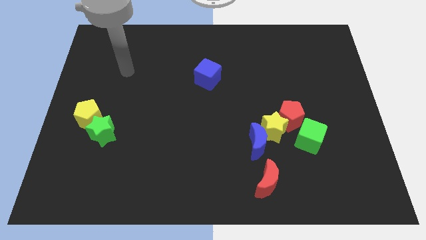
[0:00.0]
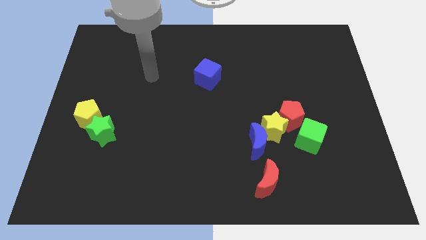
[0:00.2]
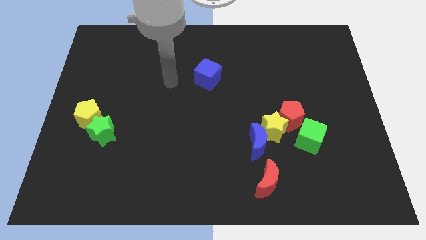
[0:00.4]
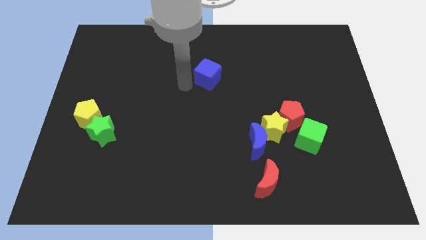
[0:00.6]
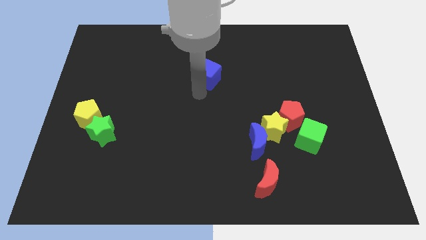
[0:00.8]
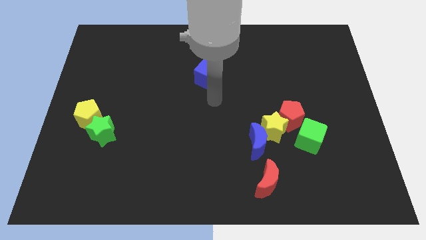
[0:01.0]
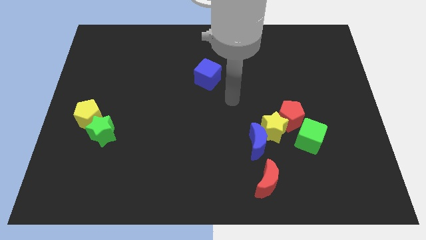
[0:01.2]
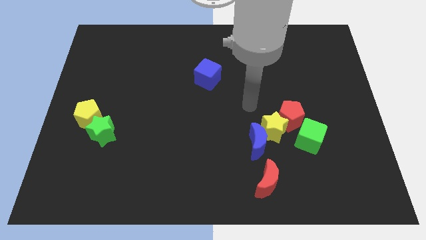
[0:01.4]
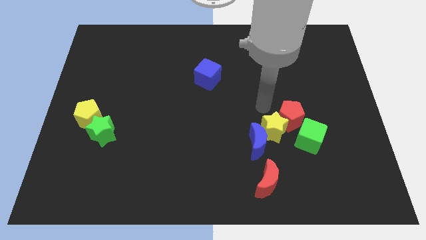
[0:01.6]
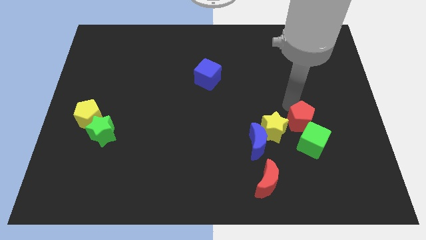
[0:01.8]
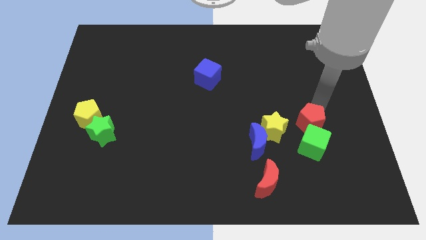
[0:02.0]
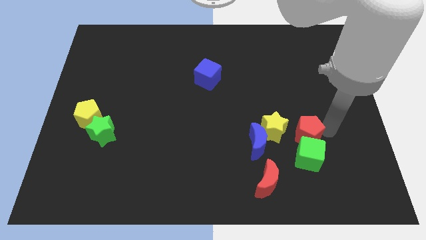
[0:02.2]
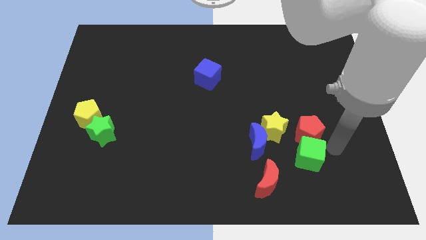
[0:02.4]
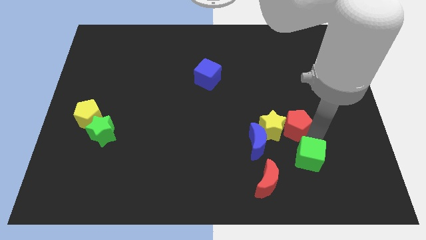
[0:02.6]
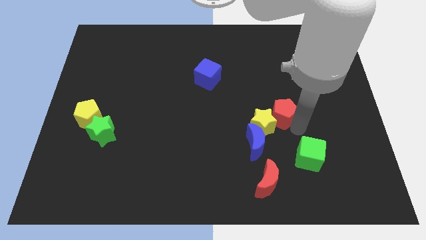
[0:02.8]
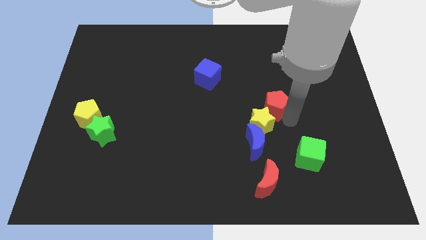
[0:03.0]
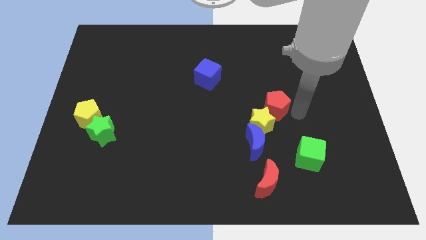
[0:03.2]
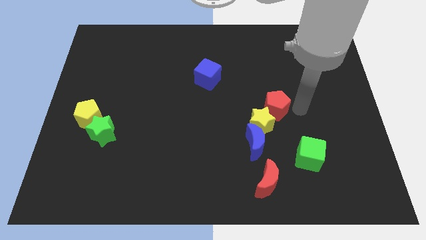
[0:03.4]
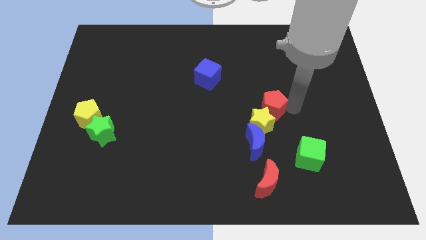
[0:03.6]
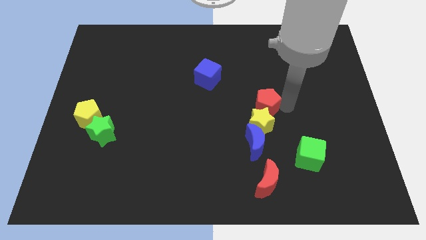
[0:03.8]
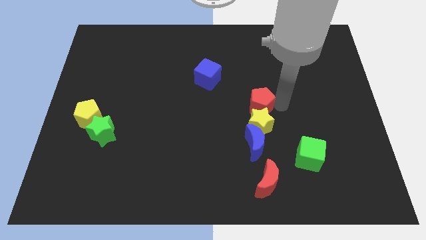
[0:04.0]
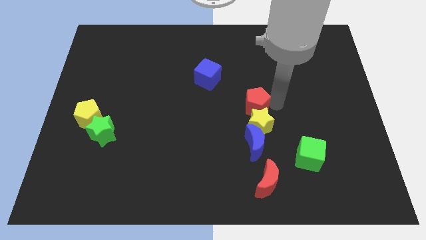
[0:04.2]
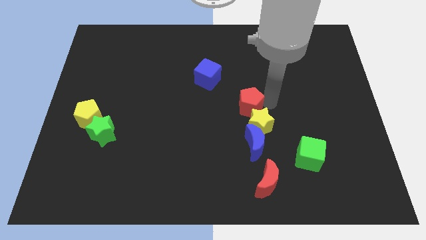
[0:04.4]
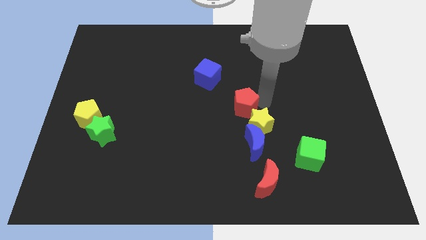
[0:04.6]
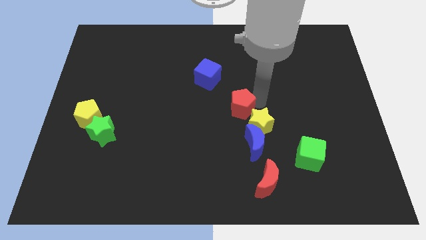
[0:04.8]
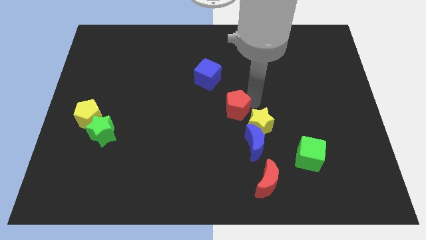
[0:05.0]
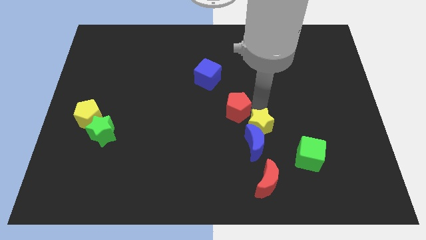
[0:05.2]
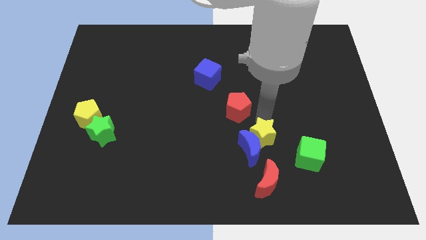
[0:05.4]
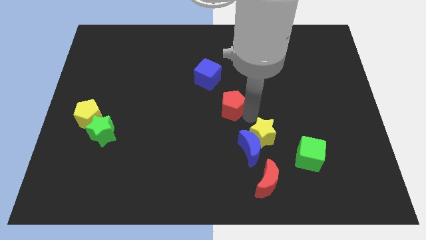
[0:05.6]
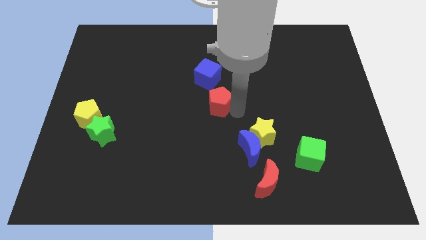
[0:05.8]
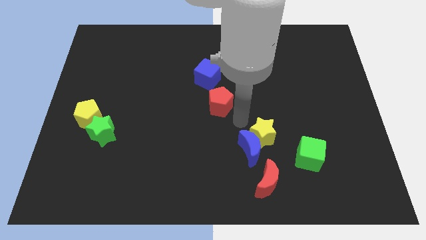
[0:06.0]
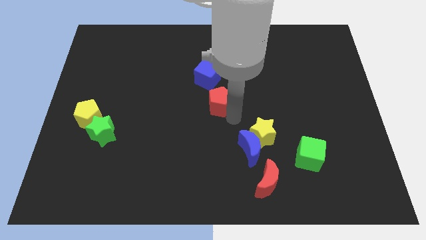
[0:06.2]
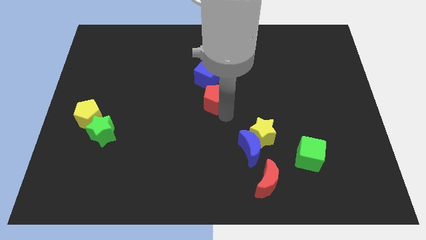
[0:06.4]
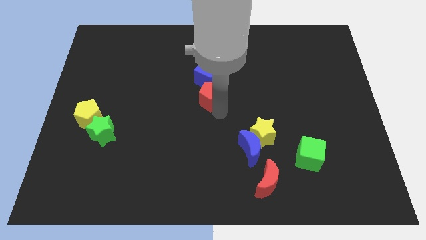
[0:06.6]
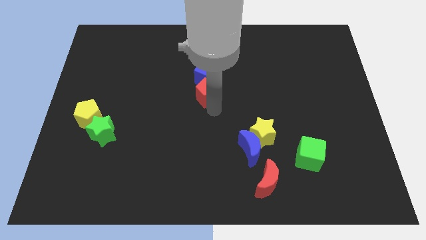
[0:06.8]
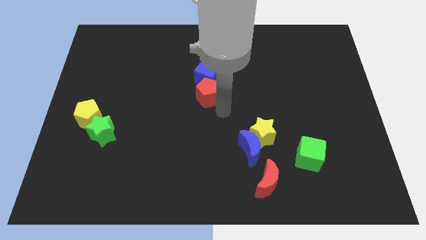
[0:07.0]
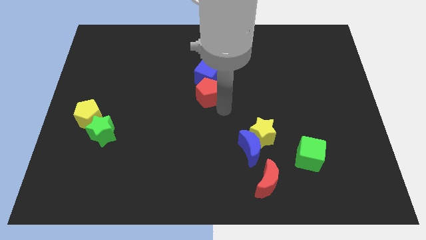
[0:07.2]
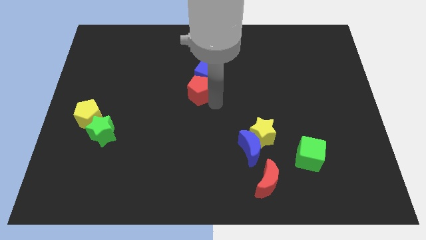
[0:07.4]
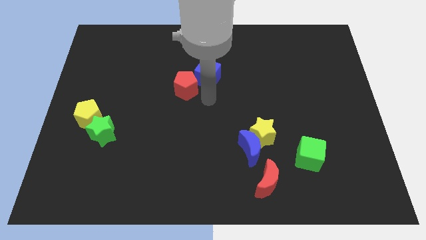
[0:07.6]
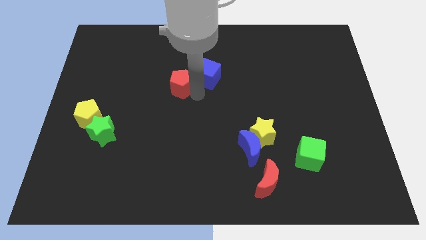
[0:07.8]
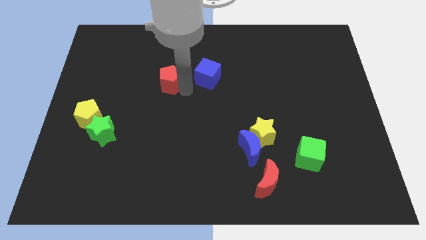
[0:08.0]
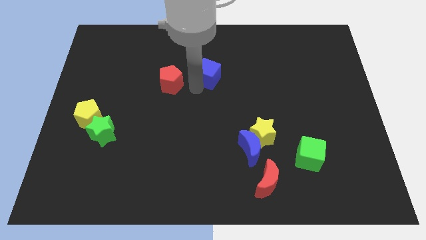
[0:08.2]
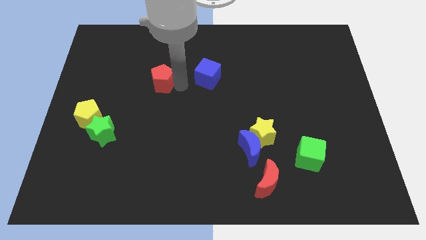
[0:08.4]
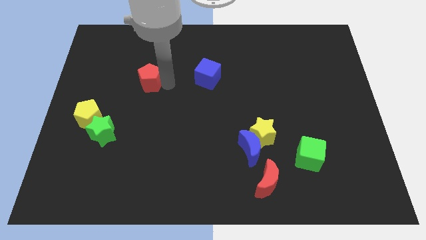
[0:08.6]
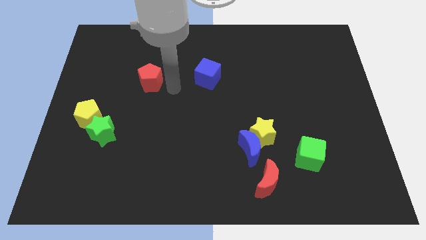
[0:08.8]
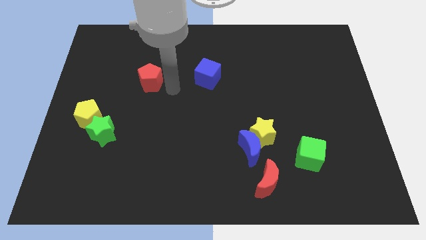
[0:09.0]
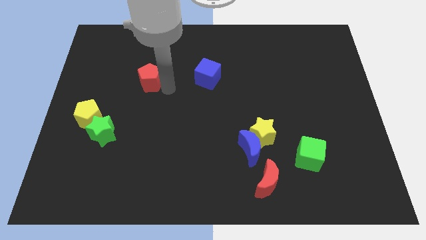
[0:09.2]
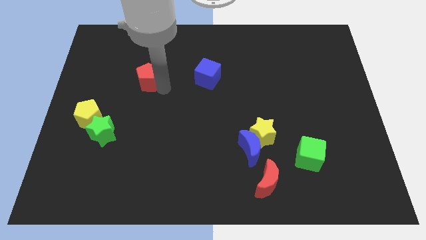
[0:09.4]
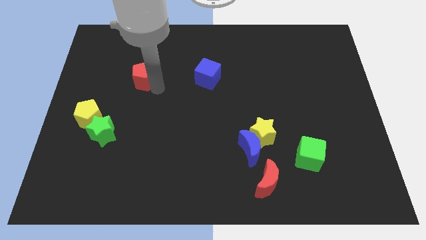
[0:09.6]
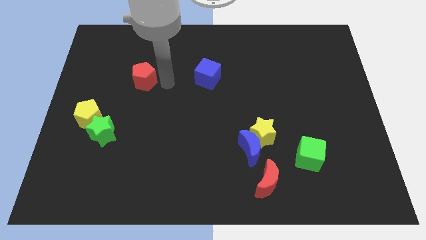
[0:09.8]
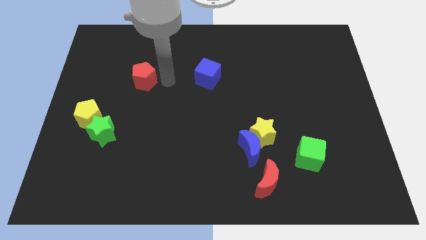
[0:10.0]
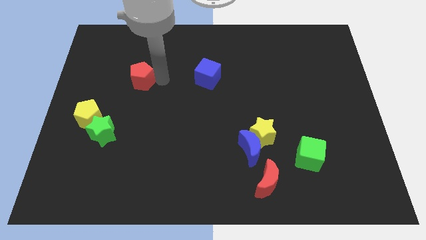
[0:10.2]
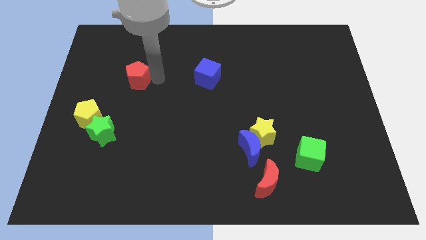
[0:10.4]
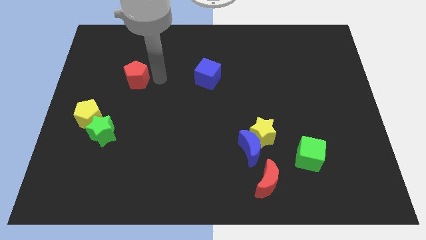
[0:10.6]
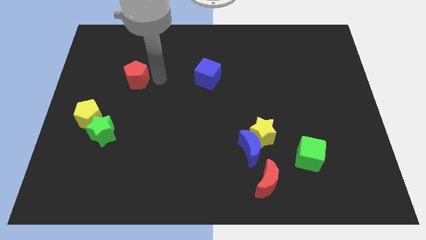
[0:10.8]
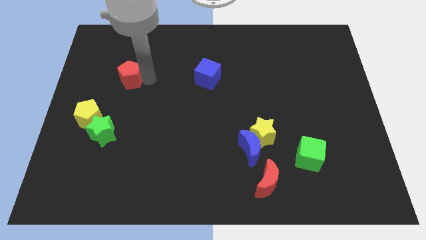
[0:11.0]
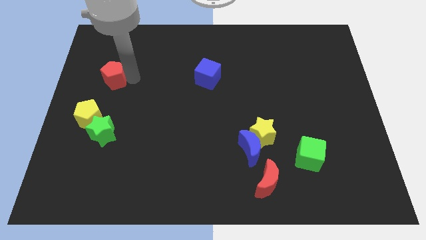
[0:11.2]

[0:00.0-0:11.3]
move the red pentagon to the top side of the yellow pentagon

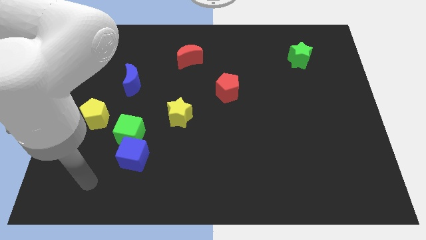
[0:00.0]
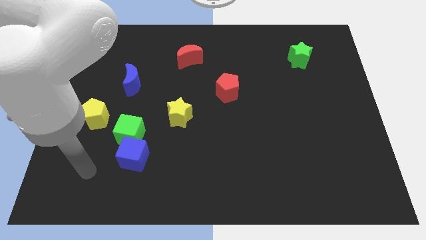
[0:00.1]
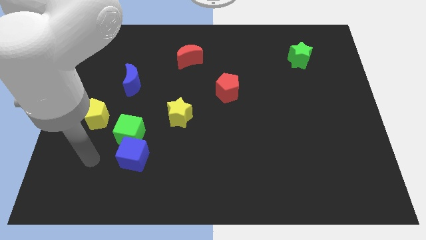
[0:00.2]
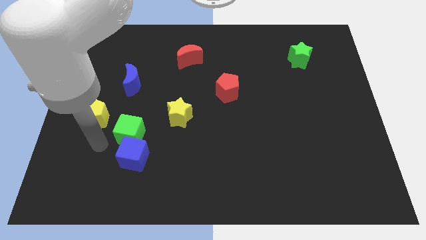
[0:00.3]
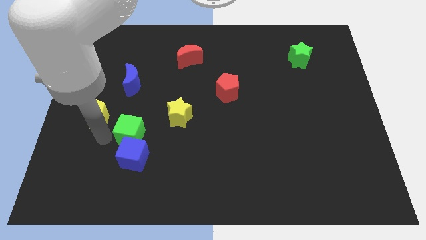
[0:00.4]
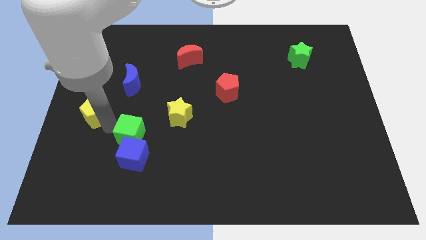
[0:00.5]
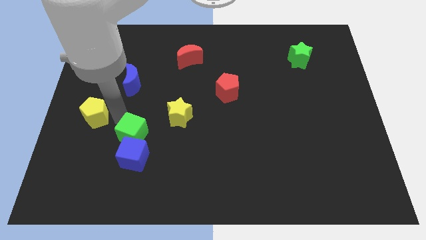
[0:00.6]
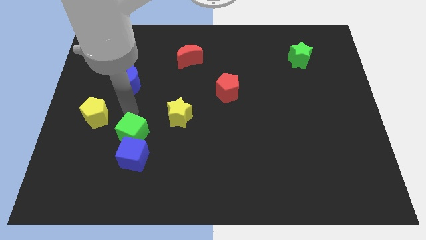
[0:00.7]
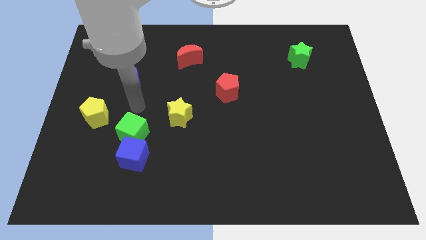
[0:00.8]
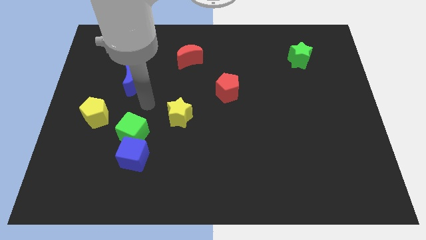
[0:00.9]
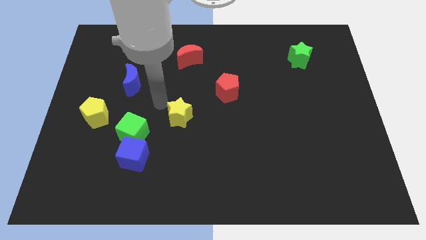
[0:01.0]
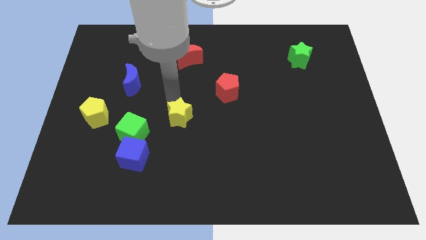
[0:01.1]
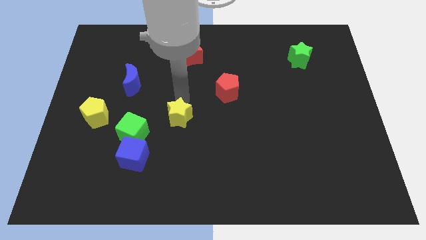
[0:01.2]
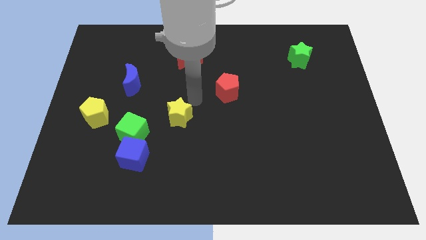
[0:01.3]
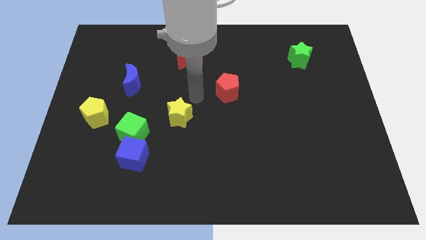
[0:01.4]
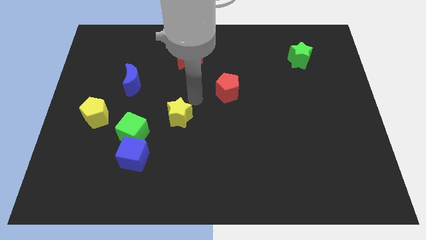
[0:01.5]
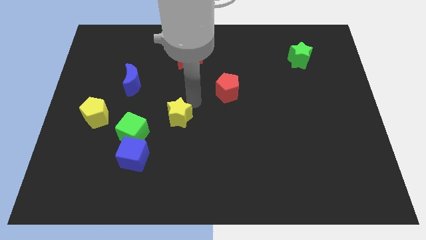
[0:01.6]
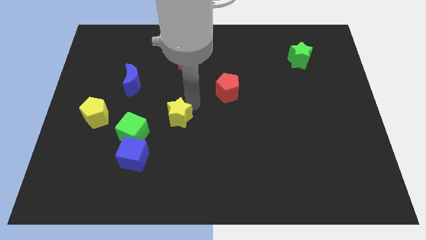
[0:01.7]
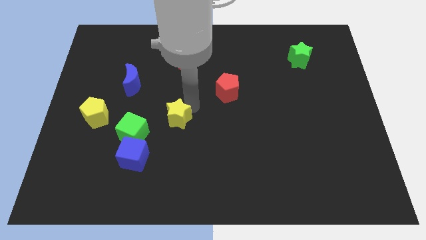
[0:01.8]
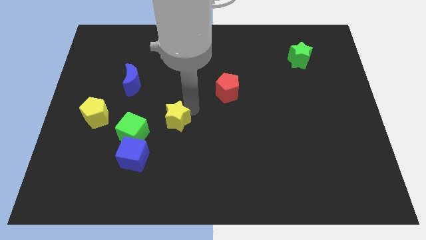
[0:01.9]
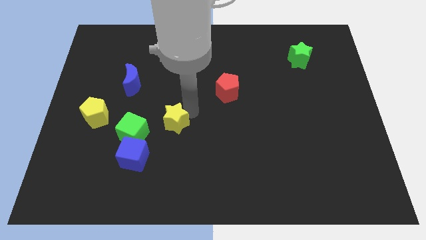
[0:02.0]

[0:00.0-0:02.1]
move the yellow star diagonally up and to the right of the blue cube
